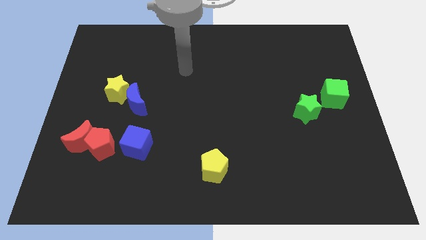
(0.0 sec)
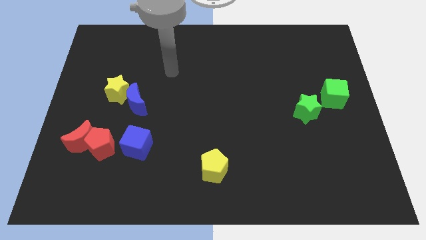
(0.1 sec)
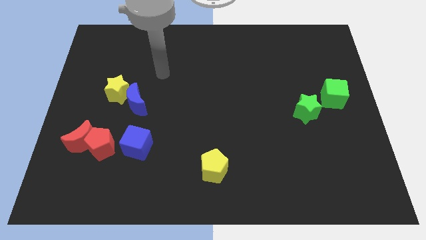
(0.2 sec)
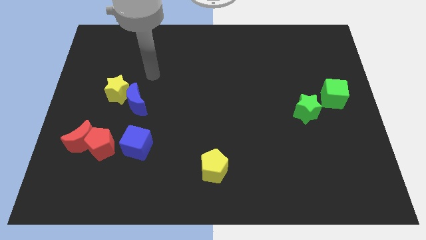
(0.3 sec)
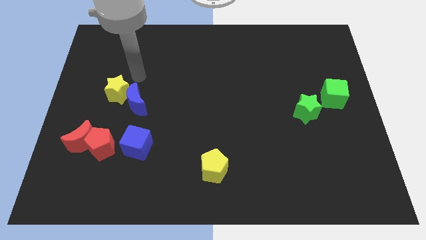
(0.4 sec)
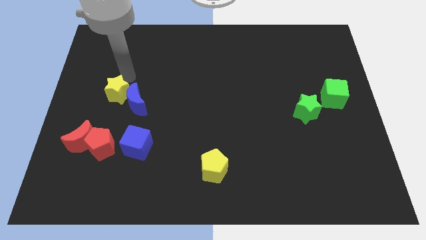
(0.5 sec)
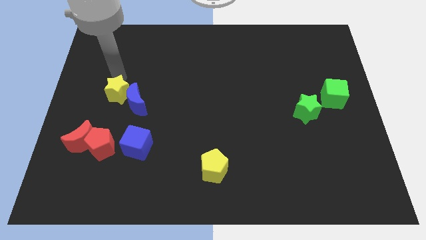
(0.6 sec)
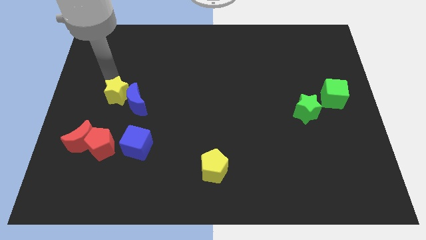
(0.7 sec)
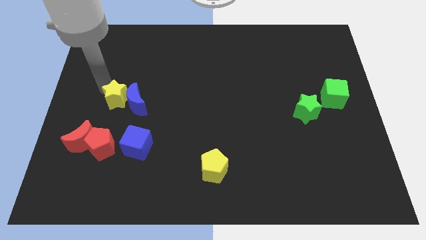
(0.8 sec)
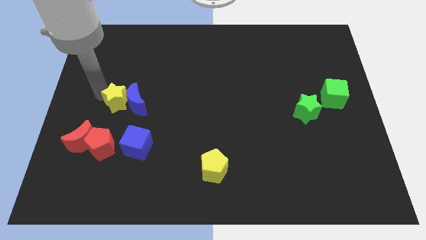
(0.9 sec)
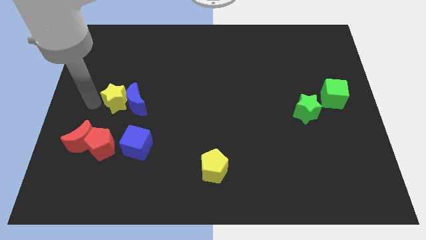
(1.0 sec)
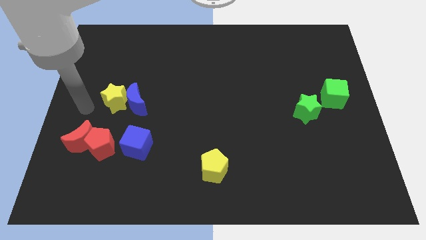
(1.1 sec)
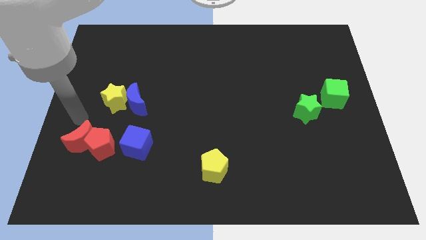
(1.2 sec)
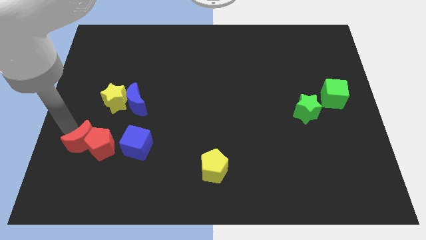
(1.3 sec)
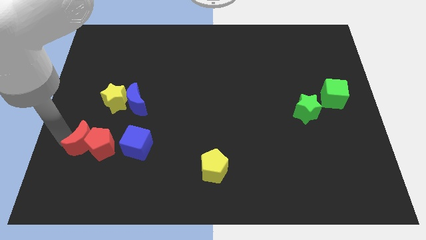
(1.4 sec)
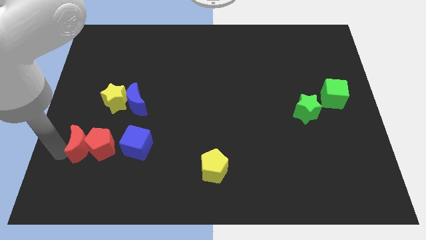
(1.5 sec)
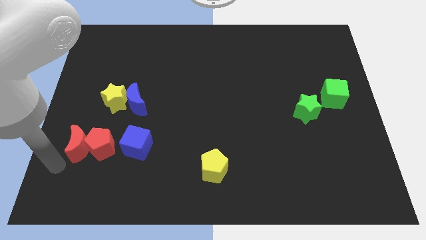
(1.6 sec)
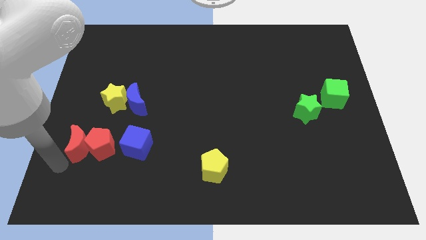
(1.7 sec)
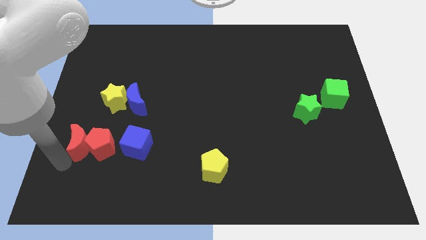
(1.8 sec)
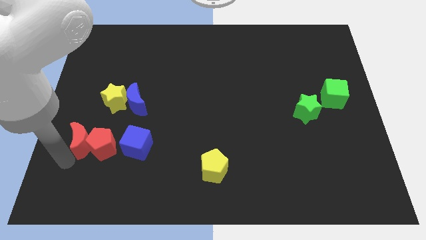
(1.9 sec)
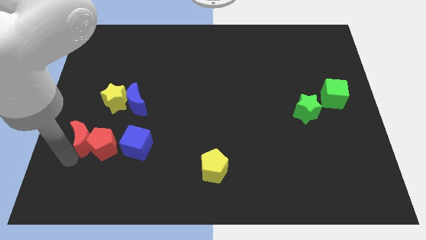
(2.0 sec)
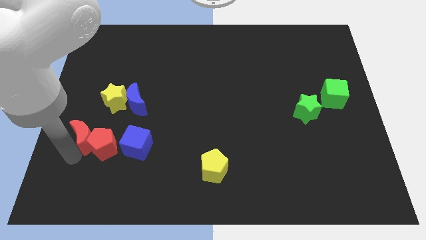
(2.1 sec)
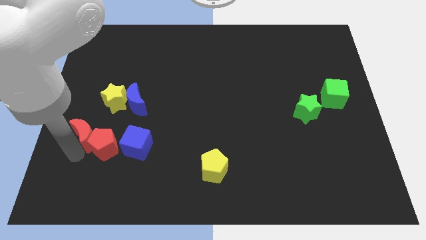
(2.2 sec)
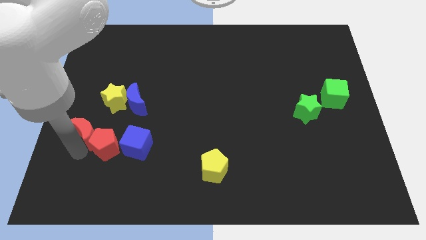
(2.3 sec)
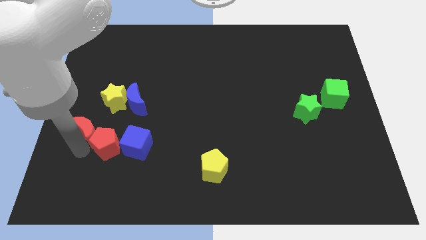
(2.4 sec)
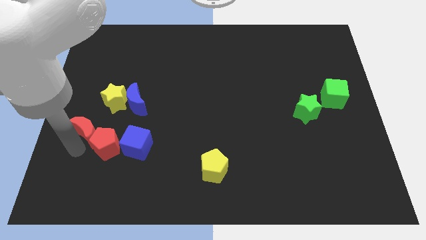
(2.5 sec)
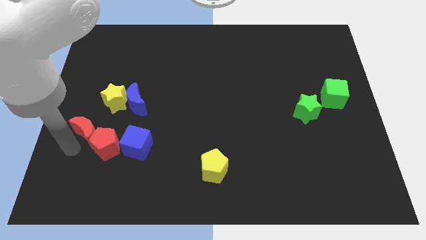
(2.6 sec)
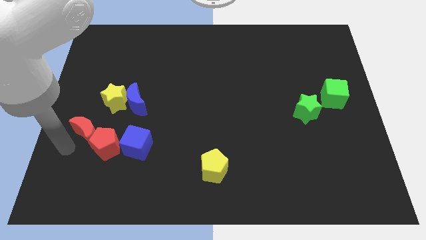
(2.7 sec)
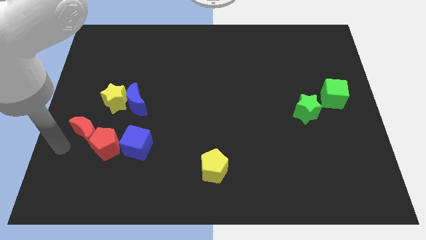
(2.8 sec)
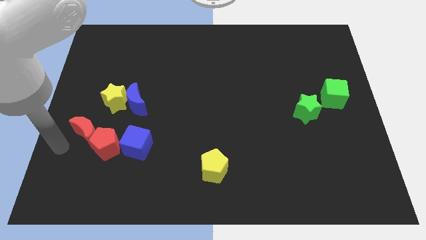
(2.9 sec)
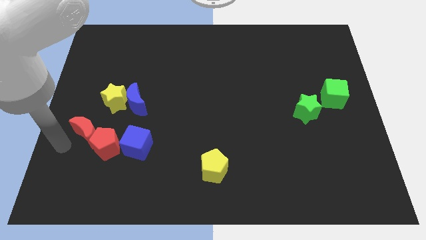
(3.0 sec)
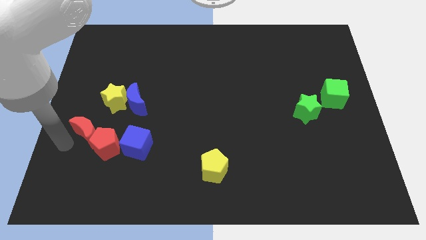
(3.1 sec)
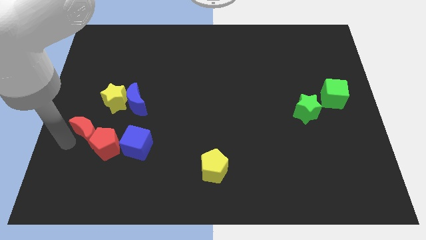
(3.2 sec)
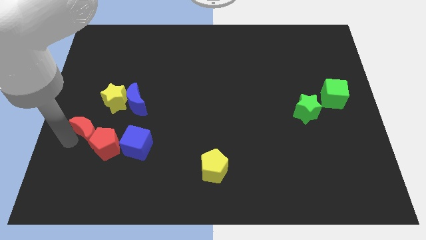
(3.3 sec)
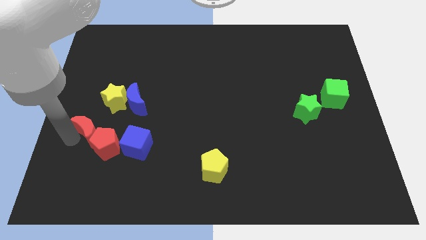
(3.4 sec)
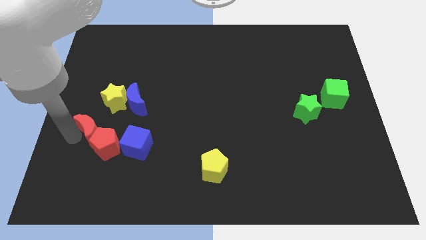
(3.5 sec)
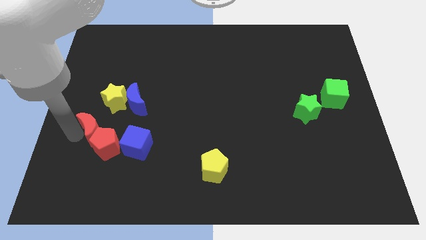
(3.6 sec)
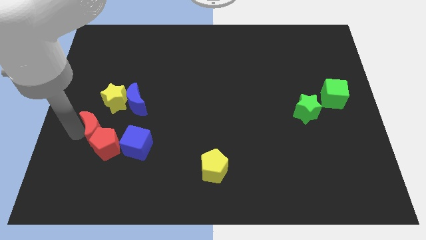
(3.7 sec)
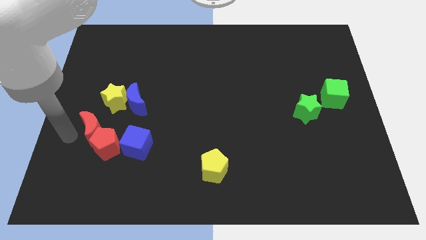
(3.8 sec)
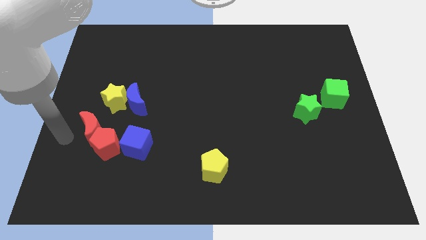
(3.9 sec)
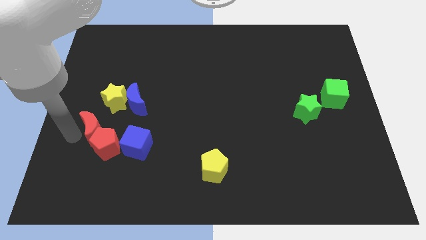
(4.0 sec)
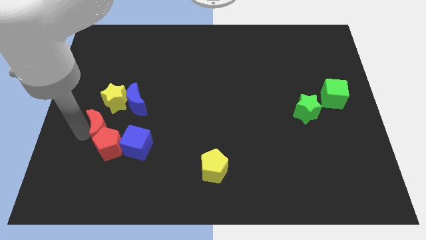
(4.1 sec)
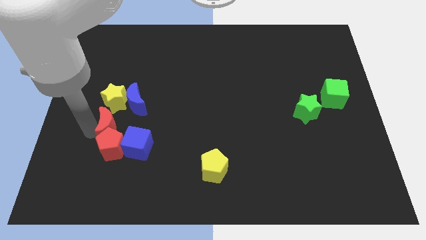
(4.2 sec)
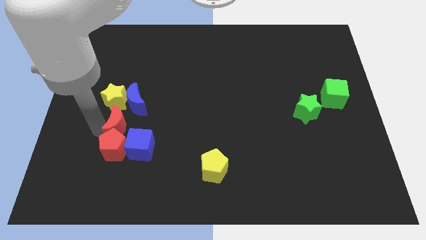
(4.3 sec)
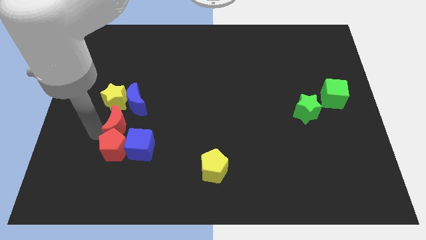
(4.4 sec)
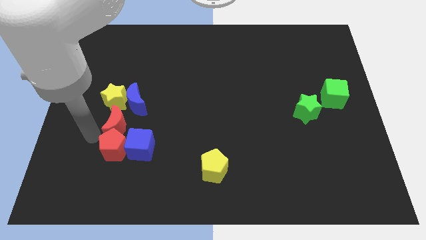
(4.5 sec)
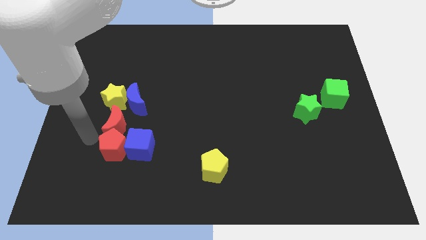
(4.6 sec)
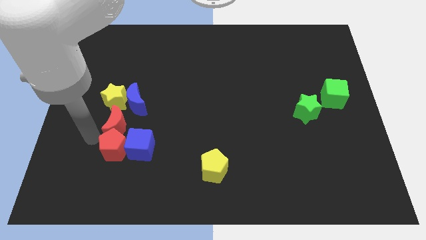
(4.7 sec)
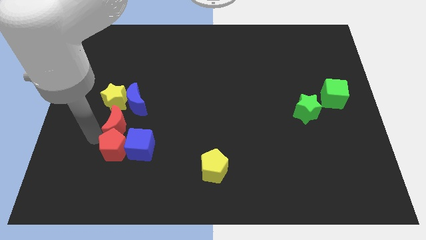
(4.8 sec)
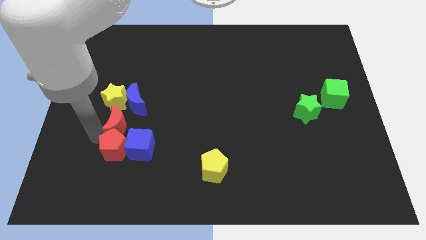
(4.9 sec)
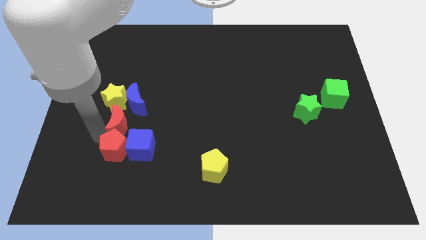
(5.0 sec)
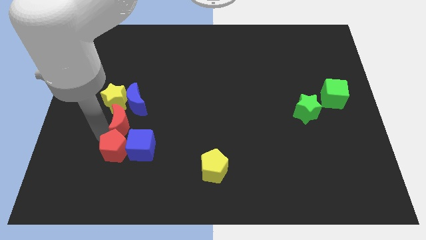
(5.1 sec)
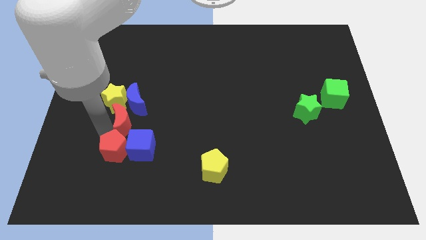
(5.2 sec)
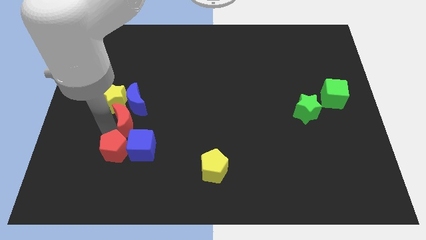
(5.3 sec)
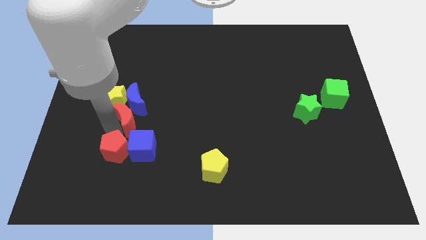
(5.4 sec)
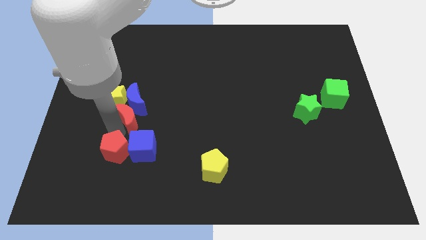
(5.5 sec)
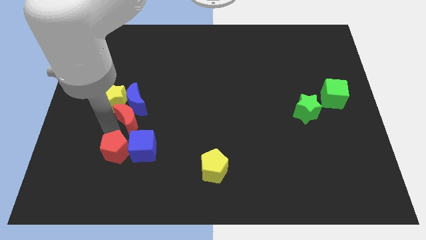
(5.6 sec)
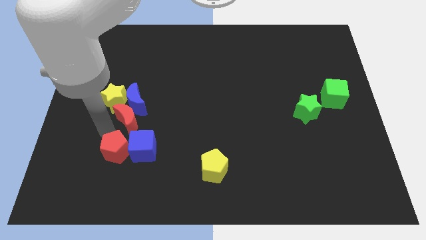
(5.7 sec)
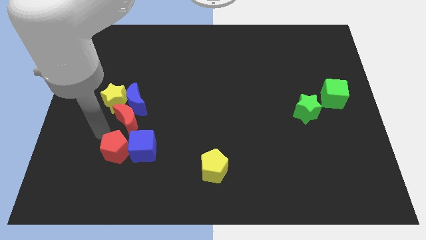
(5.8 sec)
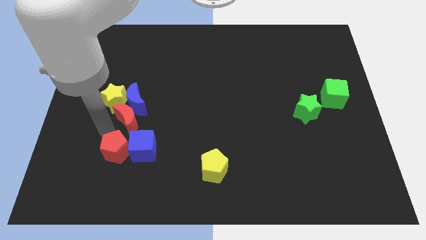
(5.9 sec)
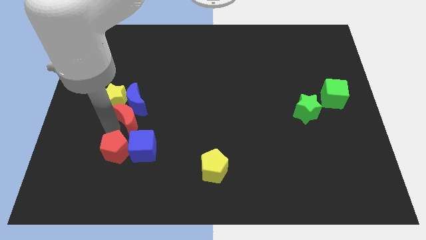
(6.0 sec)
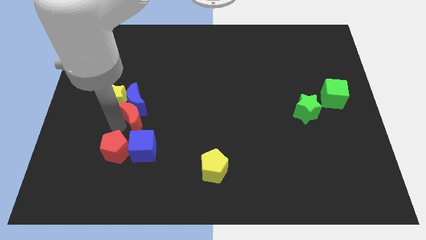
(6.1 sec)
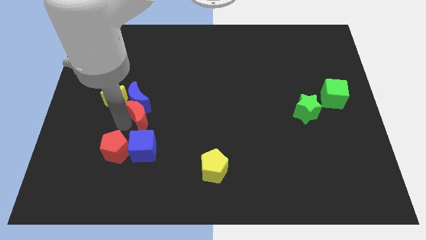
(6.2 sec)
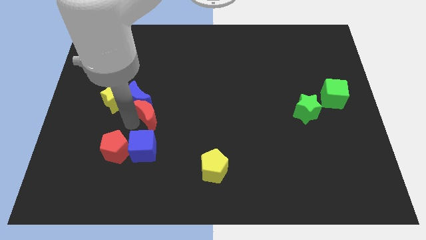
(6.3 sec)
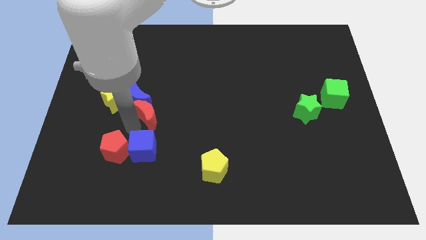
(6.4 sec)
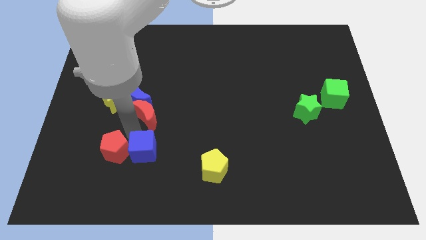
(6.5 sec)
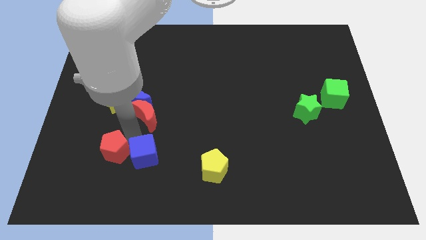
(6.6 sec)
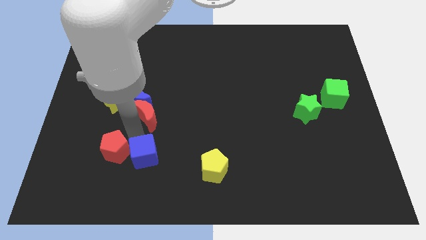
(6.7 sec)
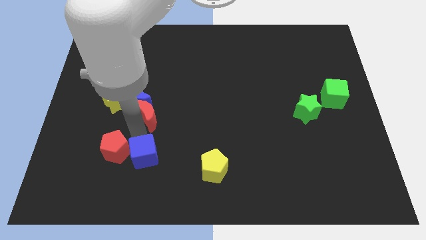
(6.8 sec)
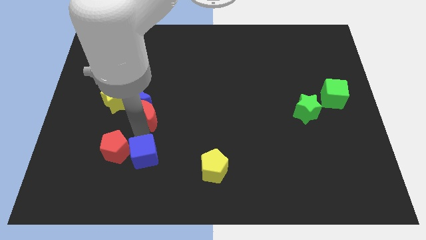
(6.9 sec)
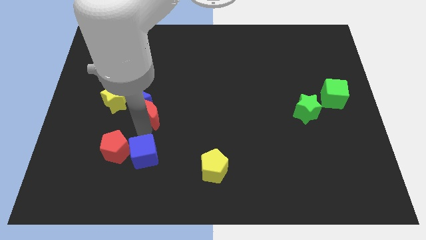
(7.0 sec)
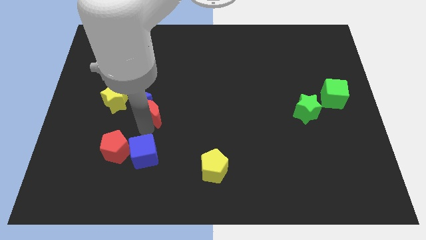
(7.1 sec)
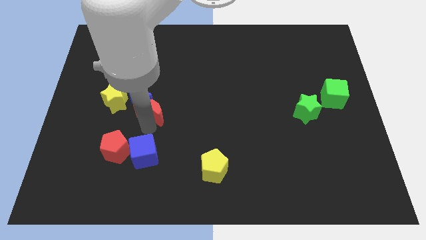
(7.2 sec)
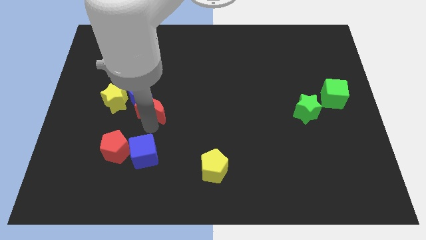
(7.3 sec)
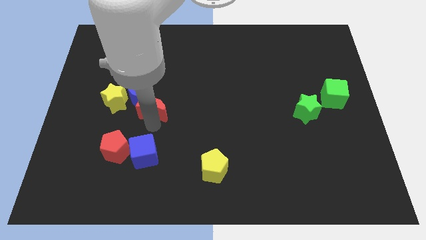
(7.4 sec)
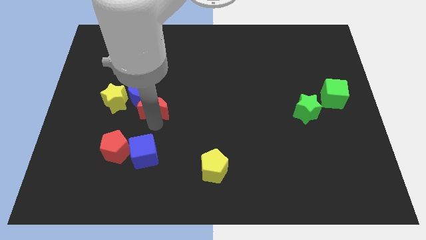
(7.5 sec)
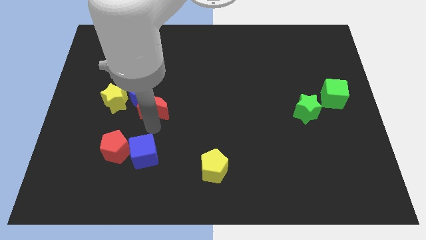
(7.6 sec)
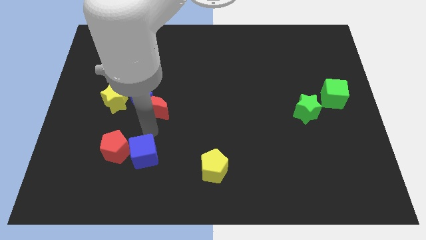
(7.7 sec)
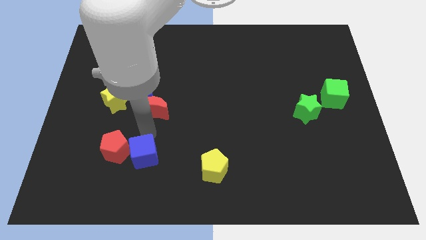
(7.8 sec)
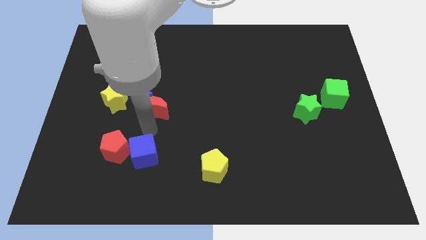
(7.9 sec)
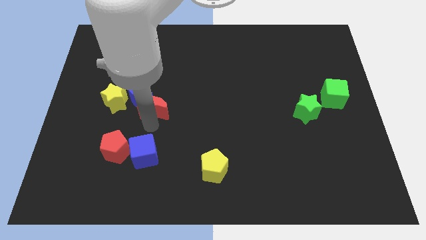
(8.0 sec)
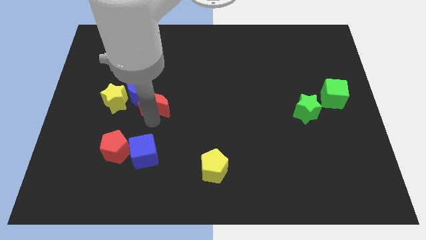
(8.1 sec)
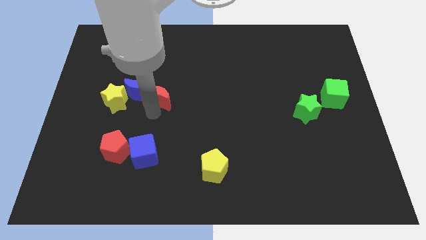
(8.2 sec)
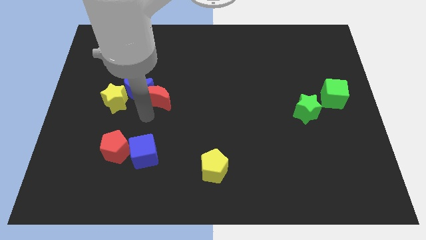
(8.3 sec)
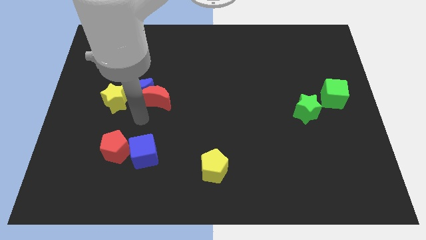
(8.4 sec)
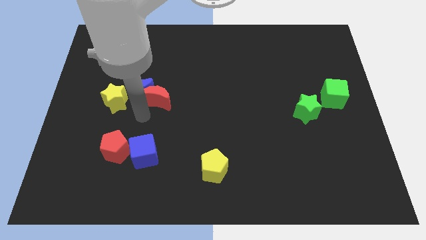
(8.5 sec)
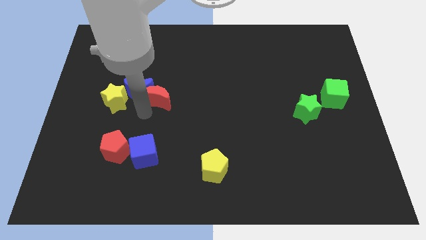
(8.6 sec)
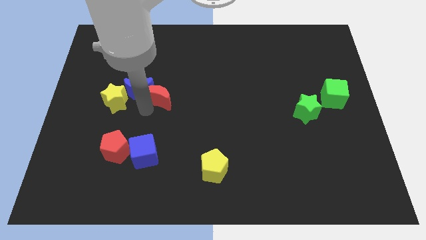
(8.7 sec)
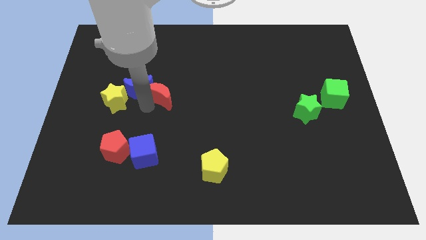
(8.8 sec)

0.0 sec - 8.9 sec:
slide the red moon up and to the right
